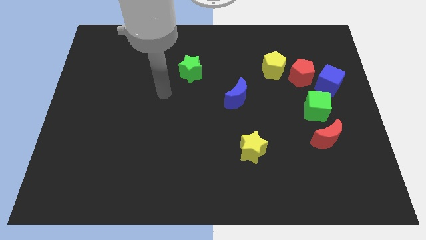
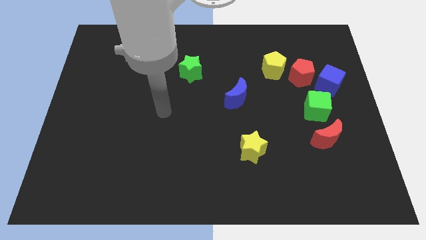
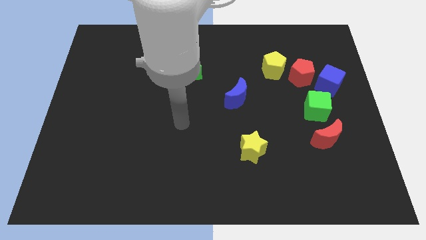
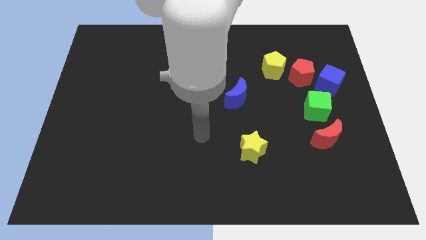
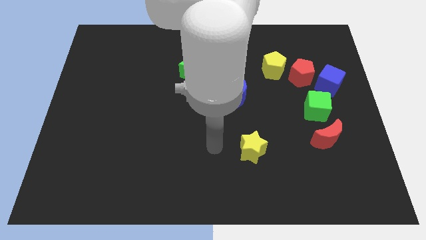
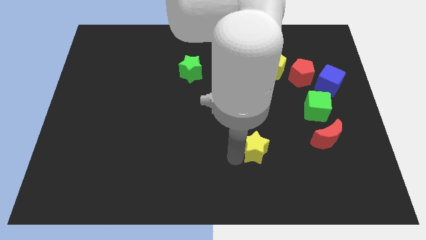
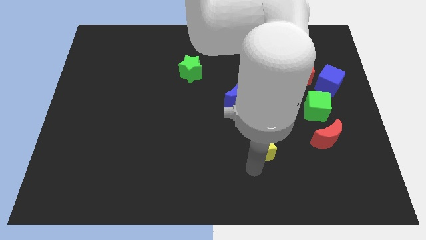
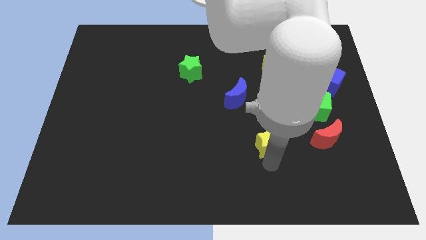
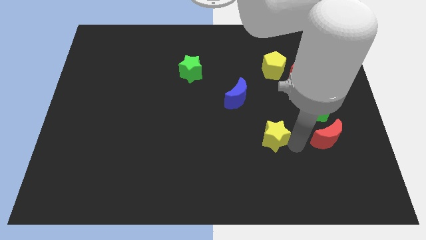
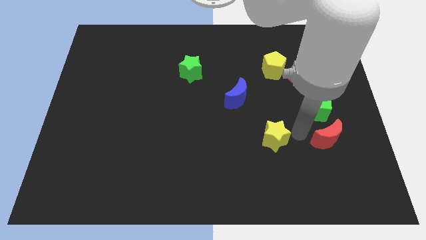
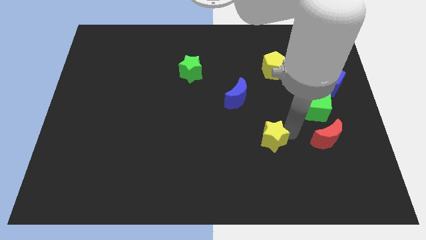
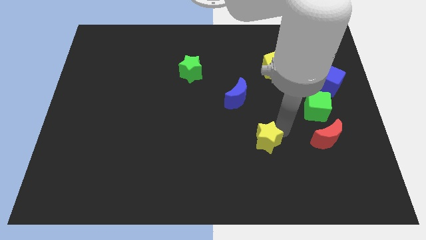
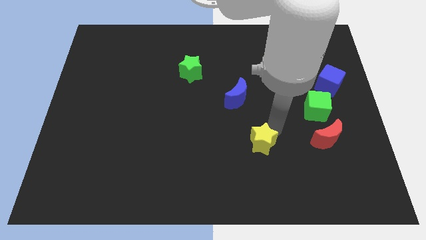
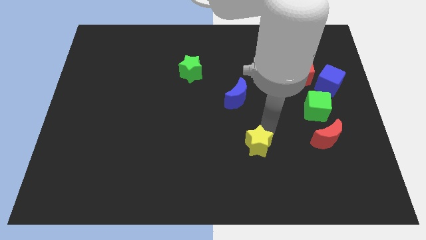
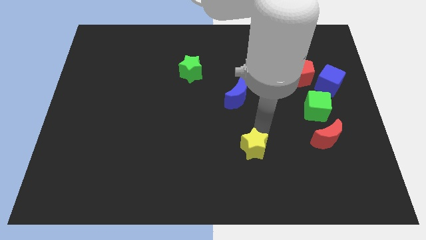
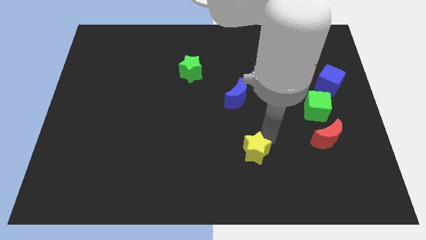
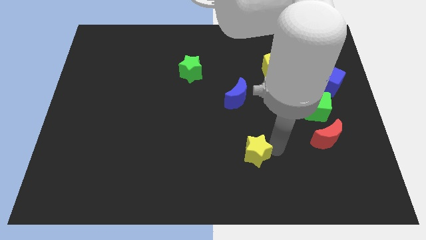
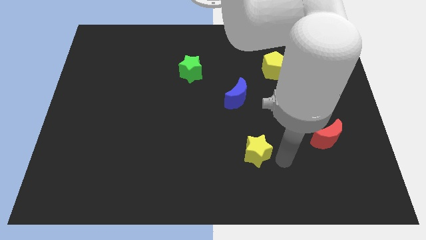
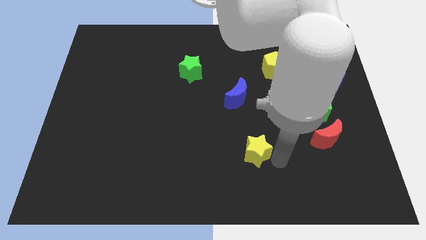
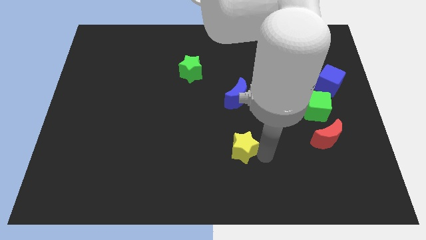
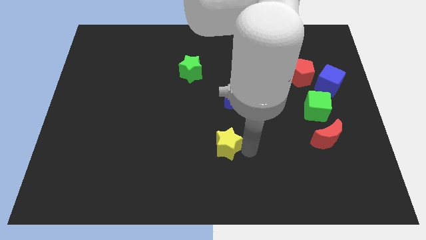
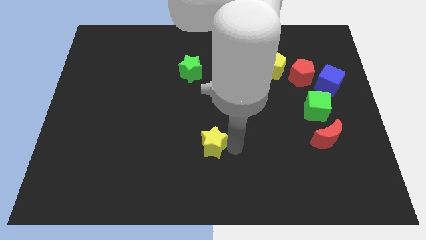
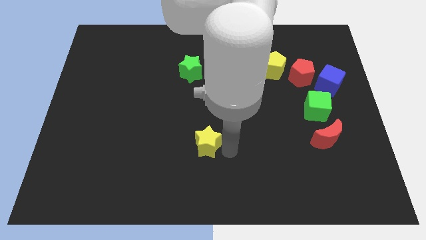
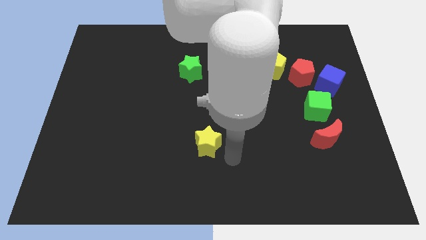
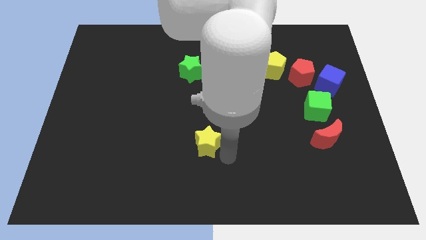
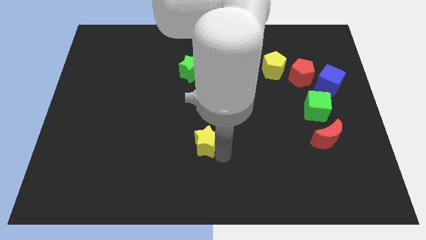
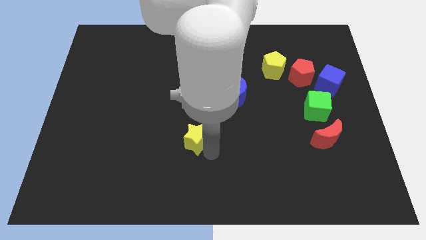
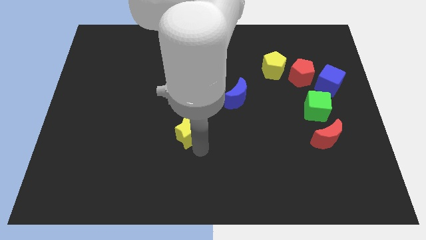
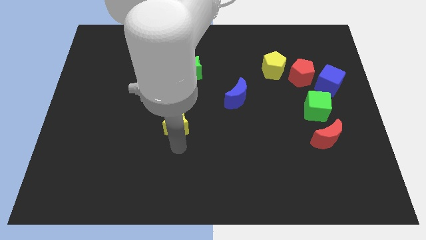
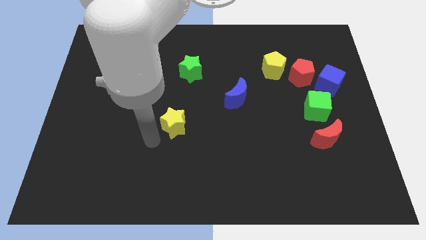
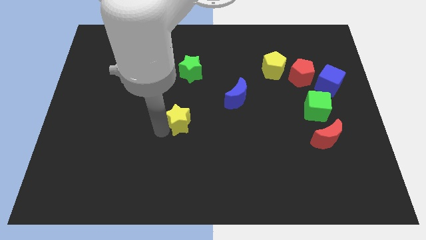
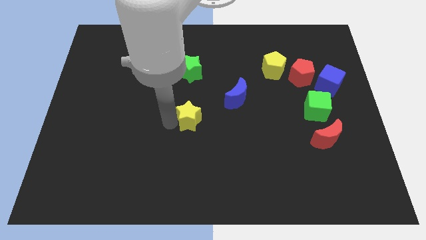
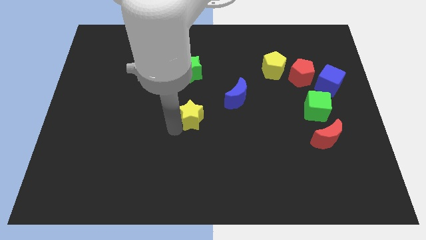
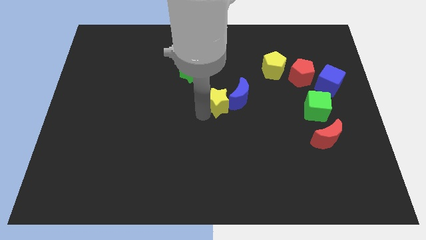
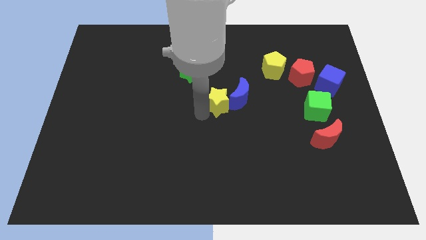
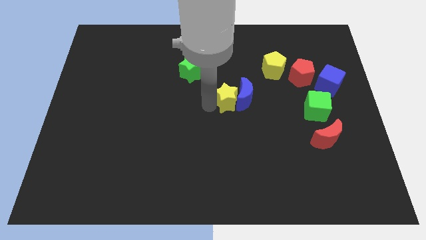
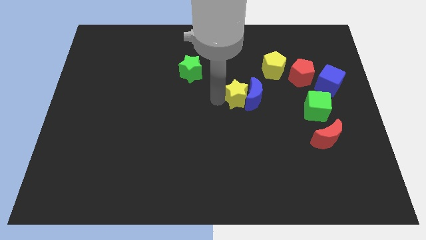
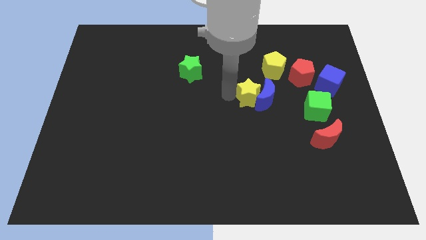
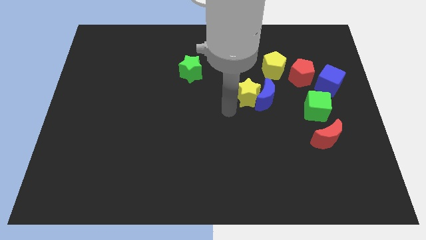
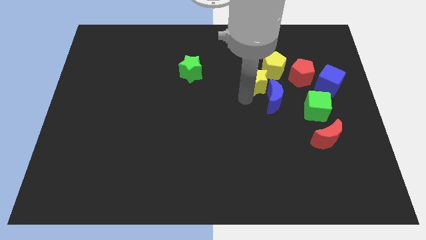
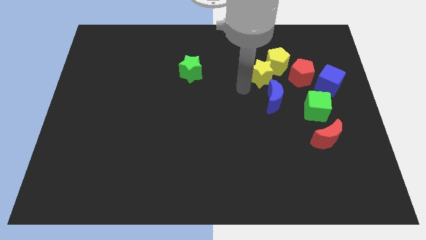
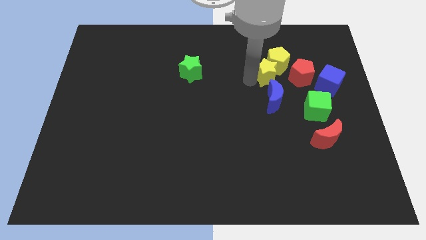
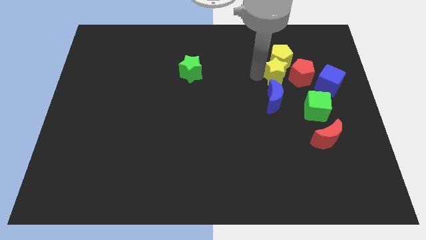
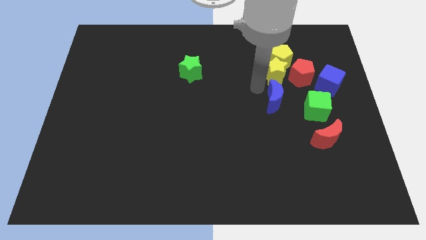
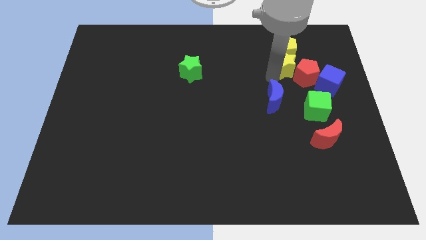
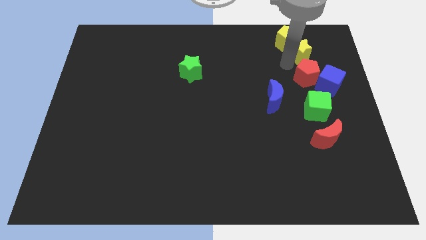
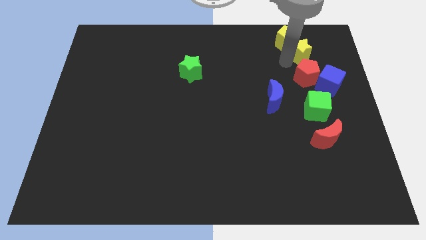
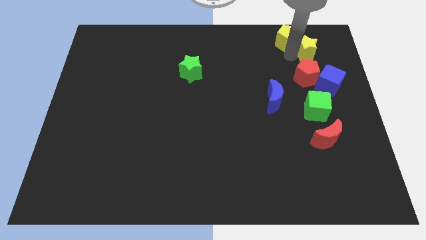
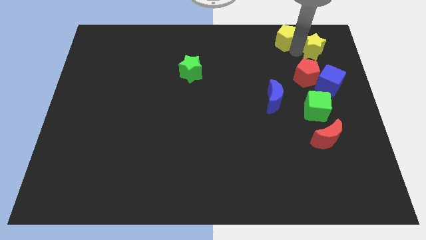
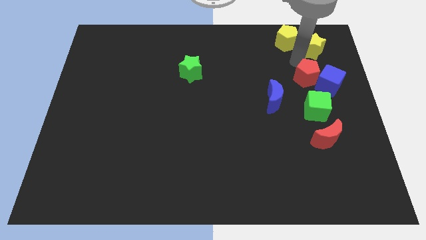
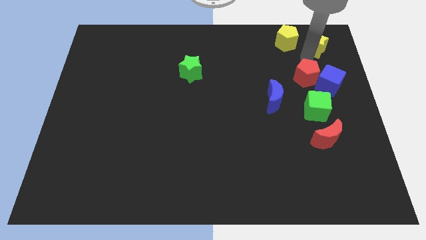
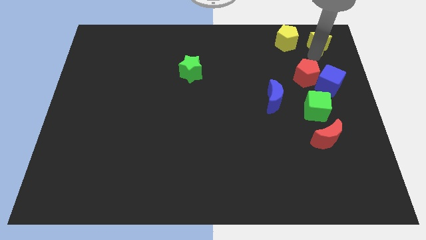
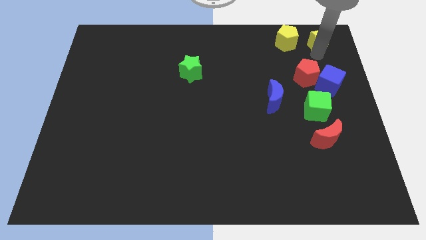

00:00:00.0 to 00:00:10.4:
put the yellow star to the top right corner

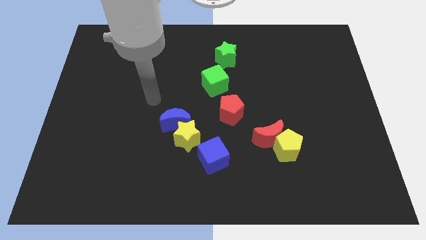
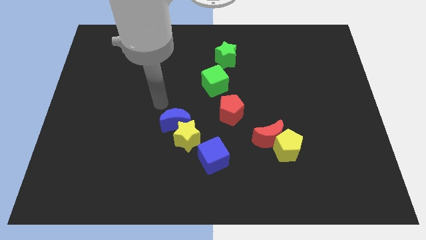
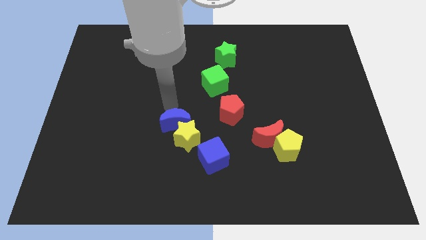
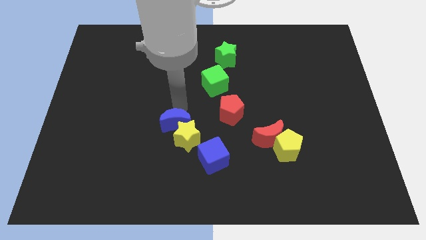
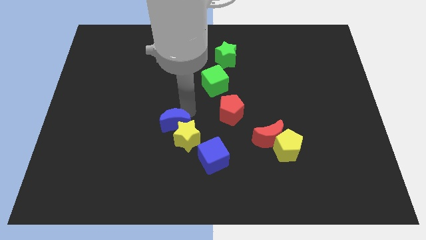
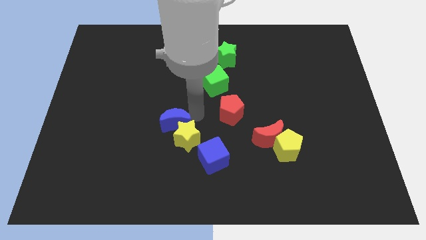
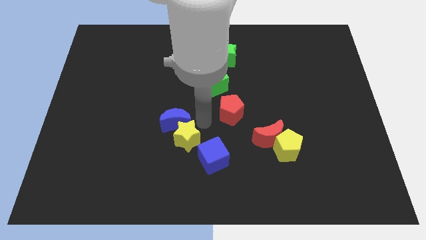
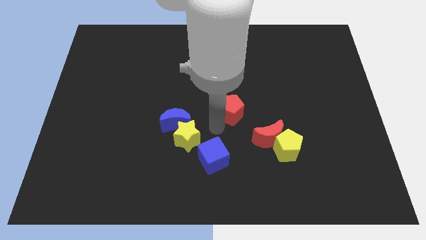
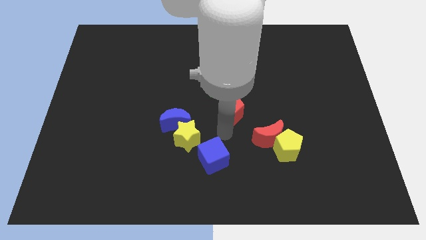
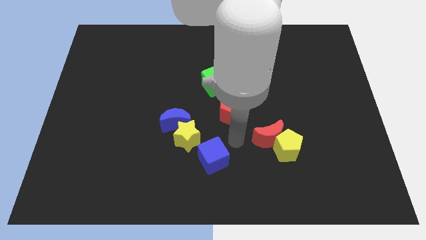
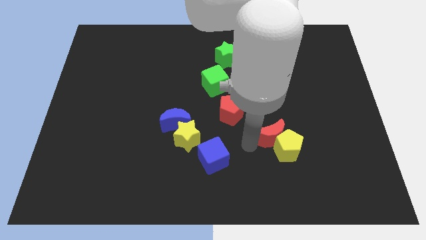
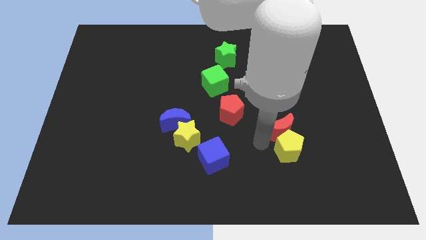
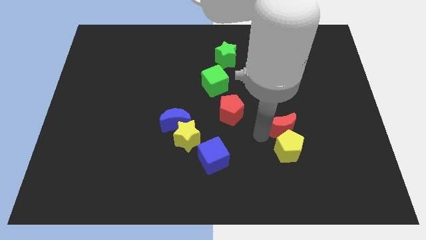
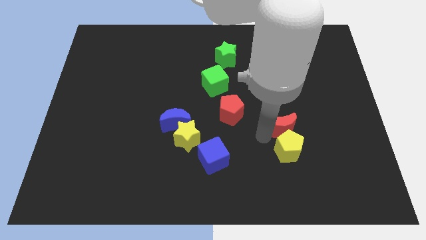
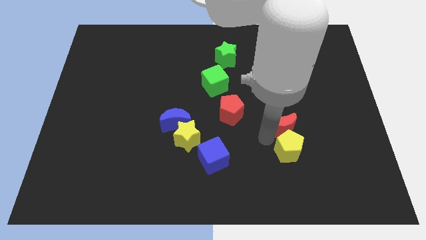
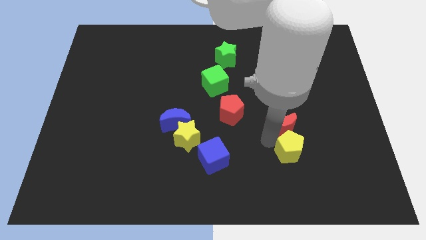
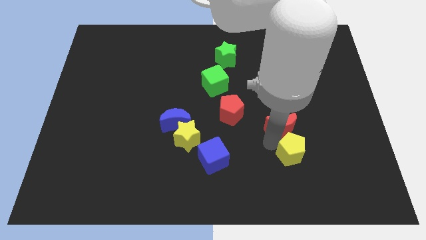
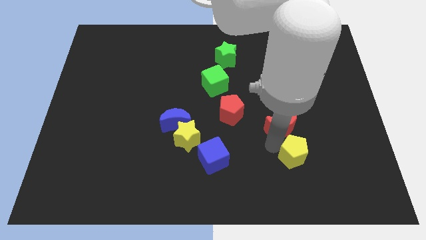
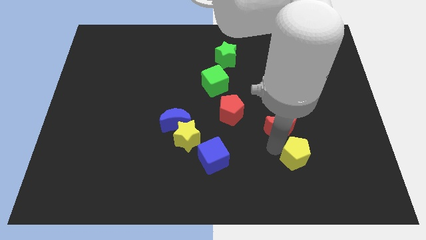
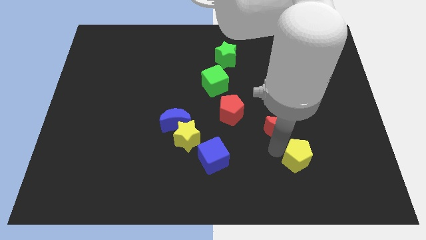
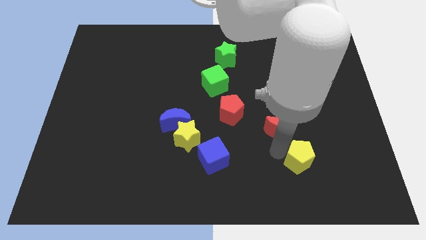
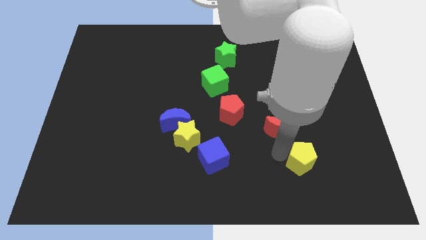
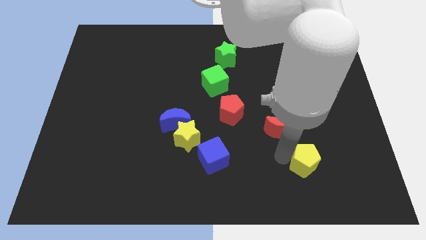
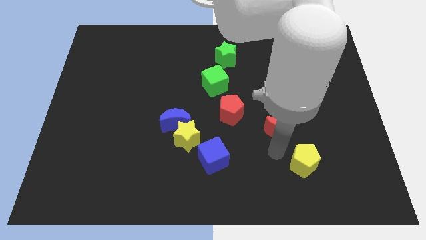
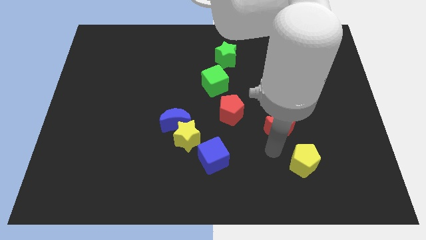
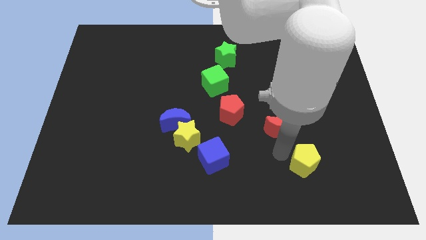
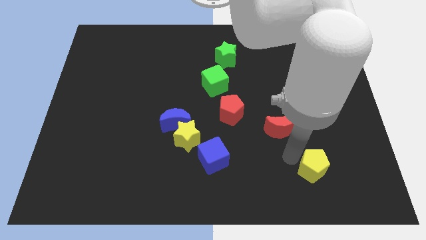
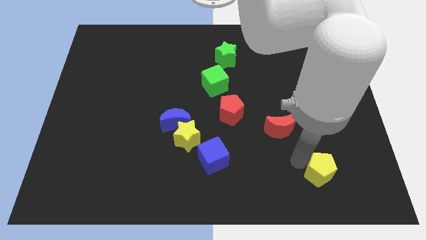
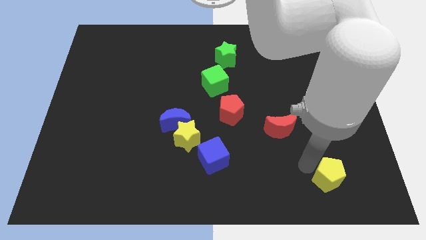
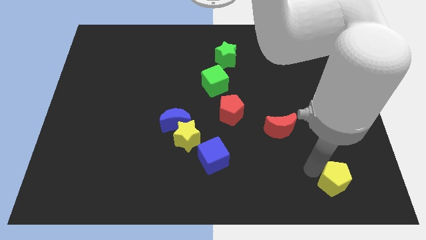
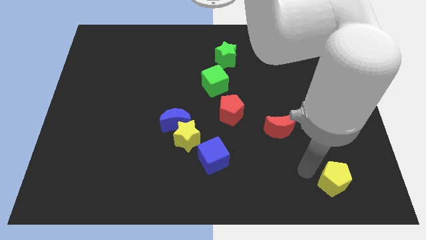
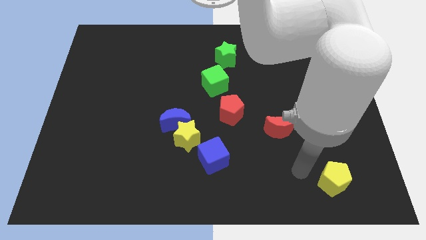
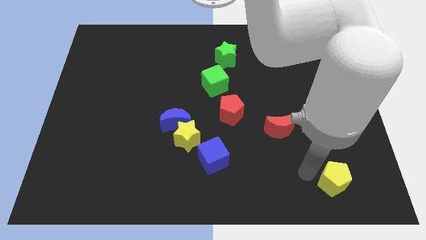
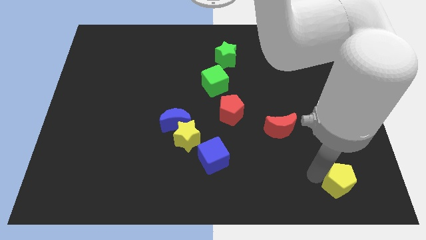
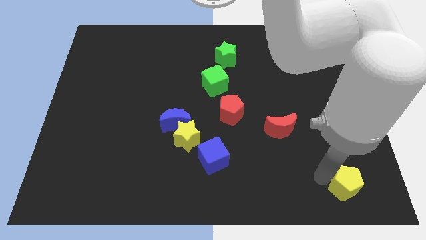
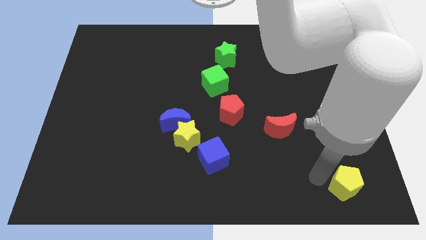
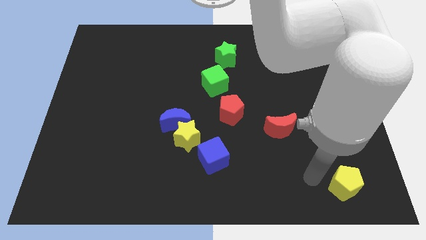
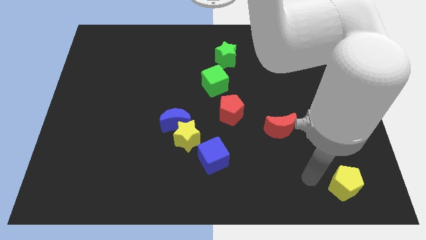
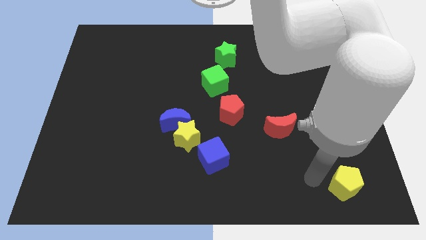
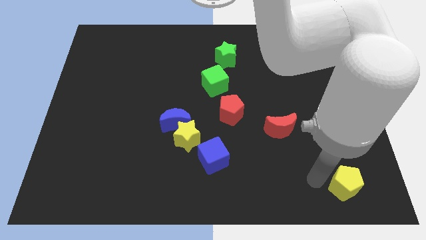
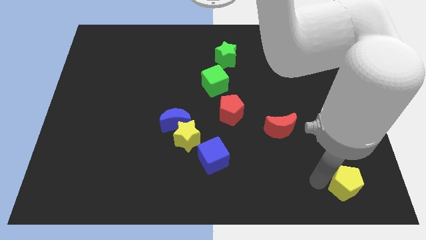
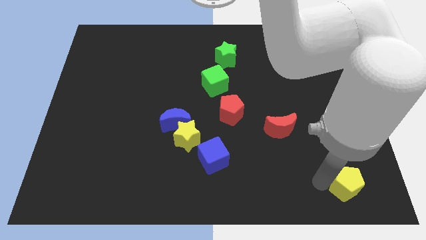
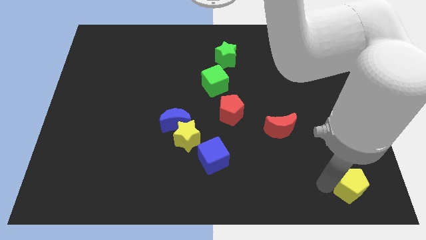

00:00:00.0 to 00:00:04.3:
move the yellow pentagon to the bottom right of the board
